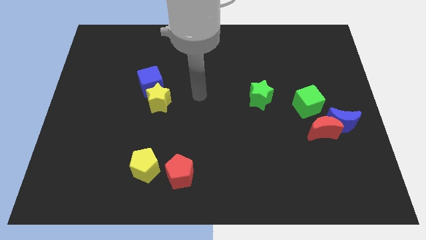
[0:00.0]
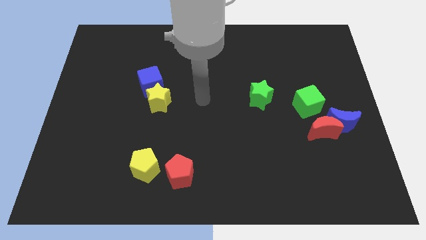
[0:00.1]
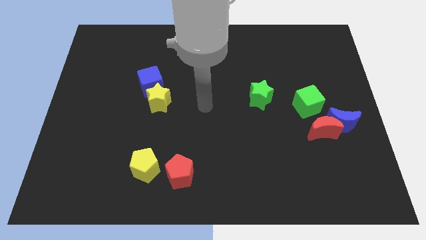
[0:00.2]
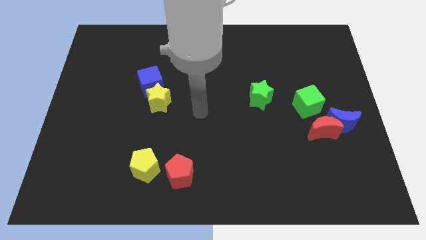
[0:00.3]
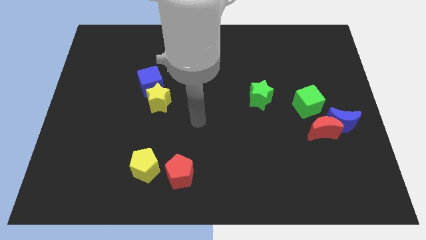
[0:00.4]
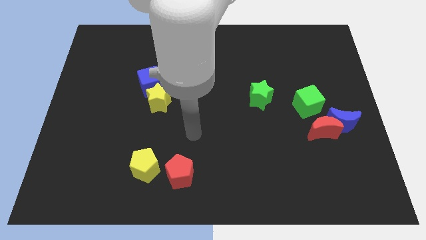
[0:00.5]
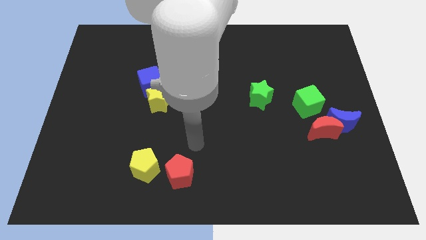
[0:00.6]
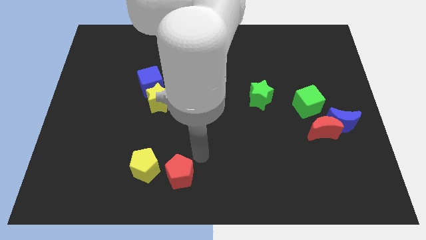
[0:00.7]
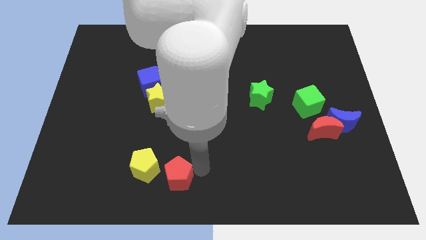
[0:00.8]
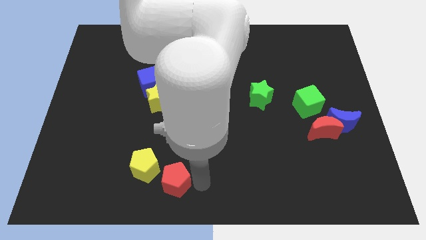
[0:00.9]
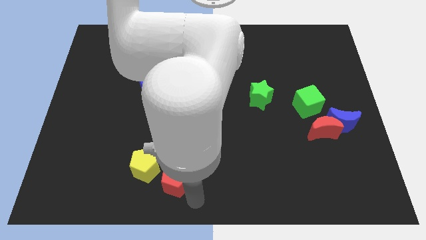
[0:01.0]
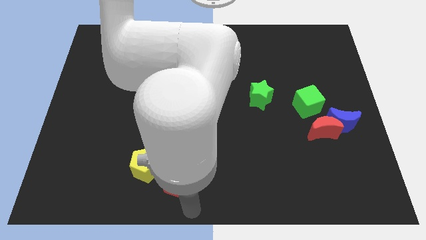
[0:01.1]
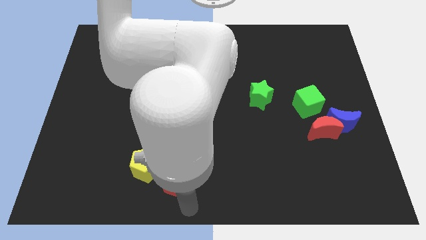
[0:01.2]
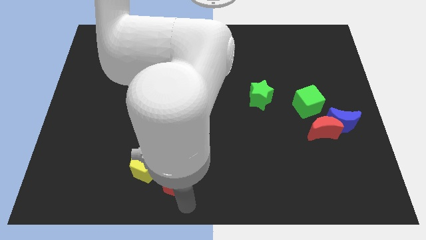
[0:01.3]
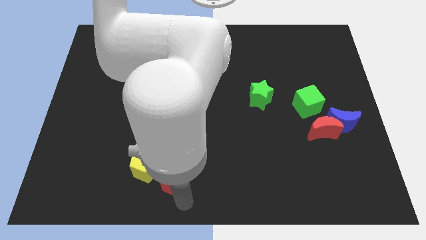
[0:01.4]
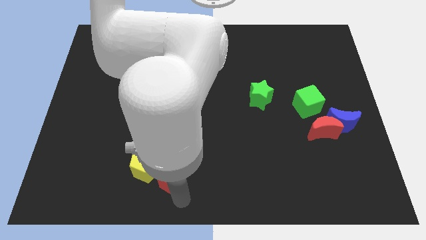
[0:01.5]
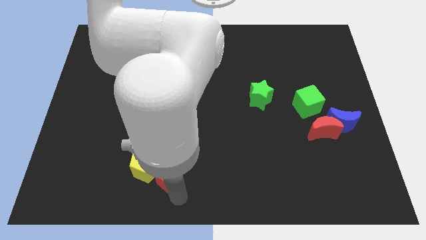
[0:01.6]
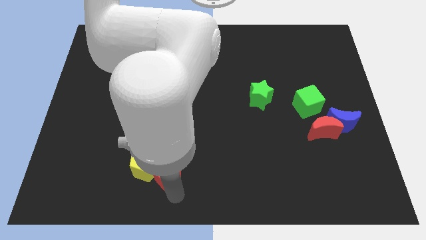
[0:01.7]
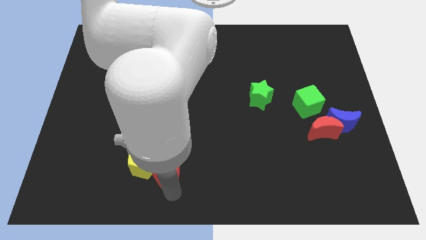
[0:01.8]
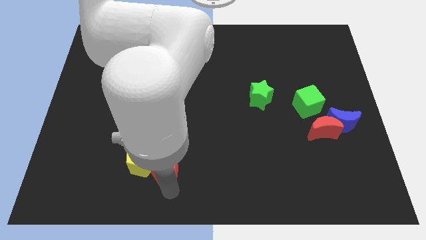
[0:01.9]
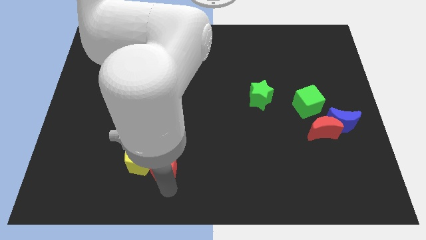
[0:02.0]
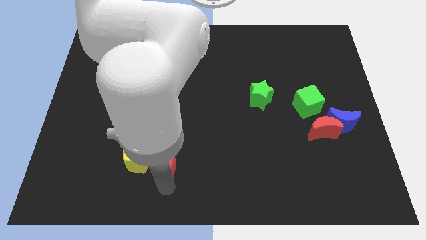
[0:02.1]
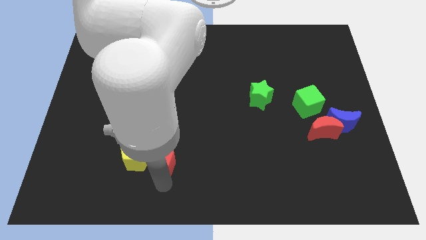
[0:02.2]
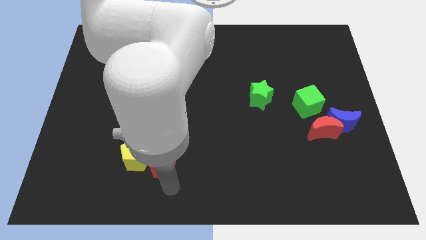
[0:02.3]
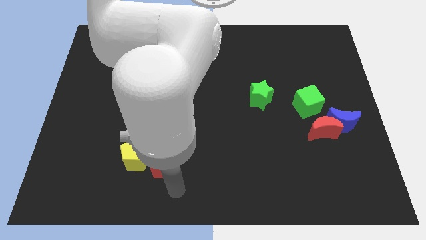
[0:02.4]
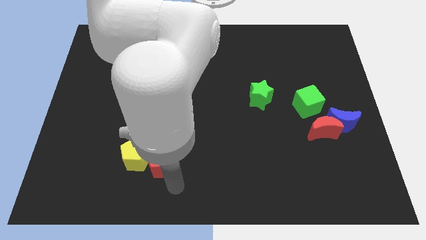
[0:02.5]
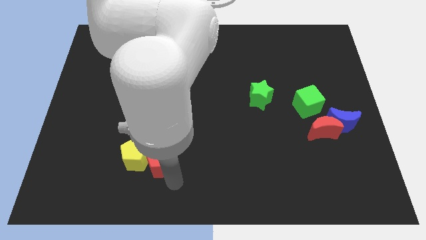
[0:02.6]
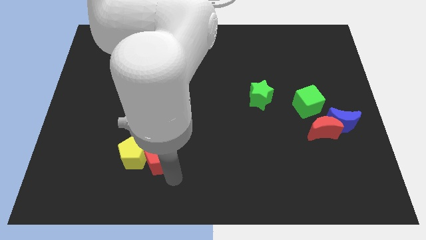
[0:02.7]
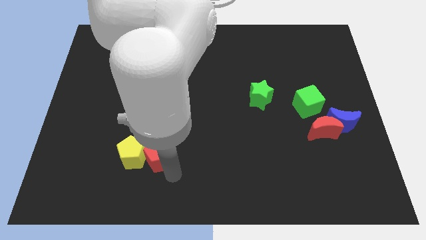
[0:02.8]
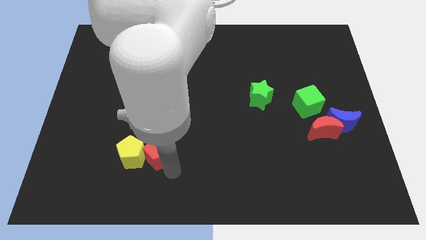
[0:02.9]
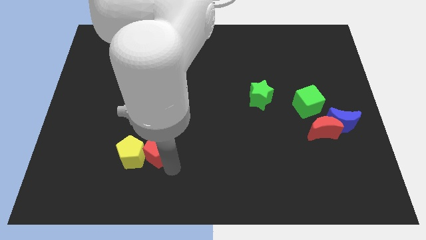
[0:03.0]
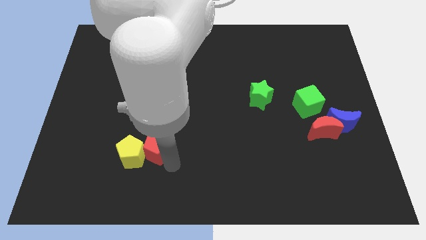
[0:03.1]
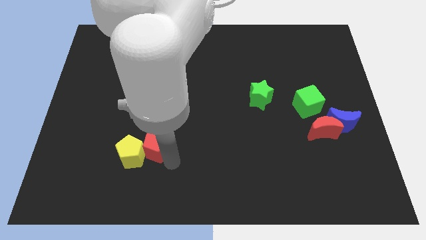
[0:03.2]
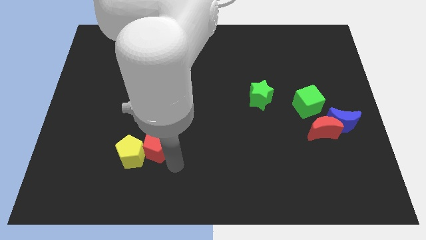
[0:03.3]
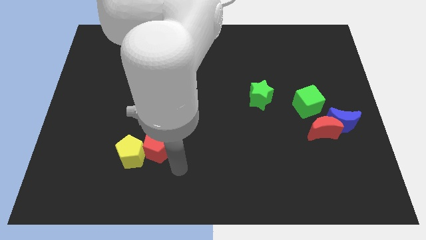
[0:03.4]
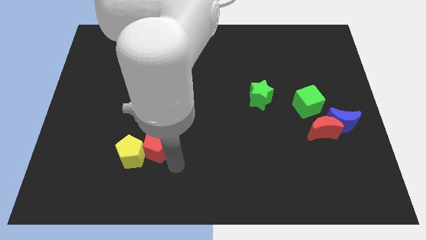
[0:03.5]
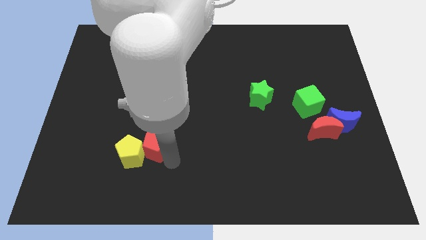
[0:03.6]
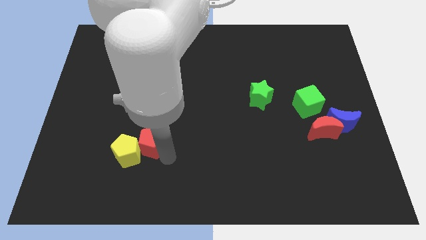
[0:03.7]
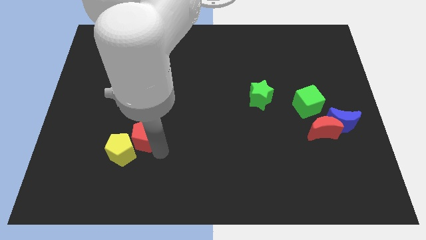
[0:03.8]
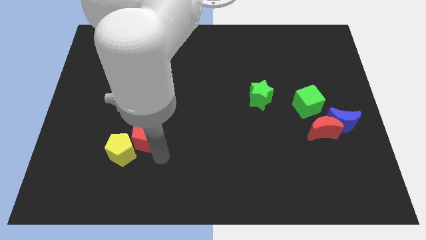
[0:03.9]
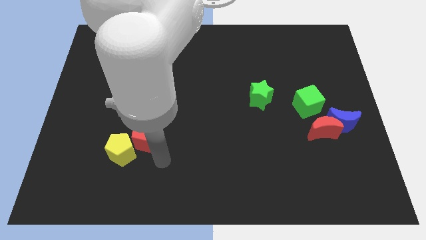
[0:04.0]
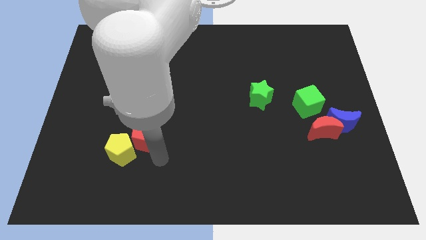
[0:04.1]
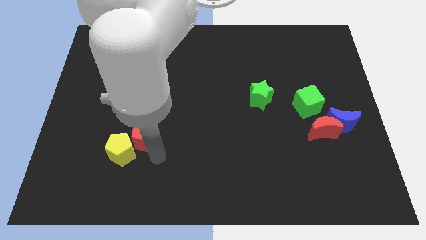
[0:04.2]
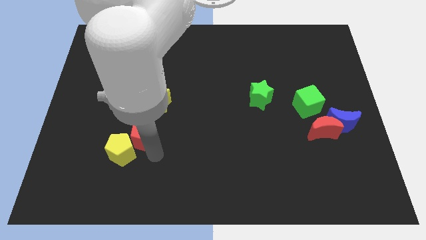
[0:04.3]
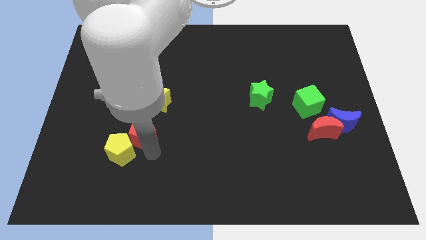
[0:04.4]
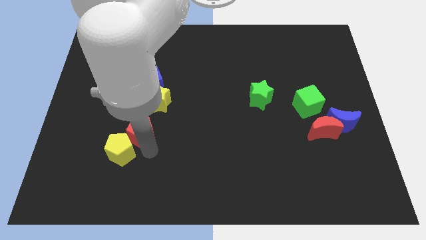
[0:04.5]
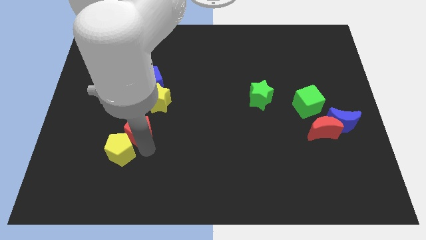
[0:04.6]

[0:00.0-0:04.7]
push the red pentagon to the bottom left of the yellow star

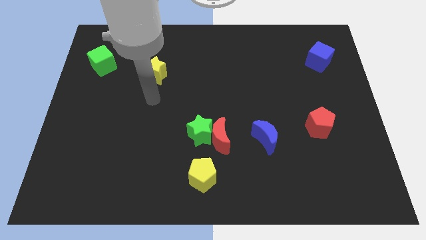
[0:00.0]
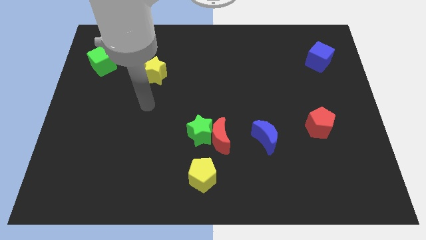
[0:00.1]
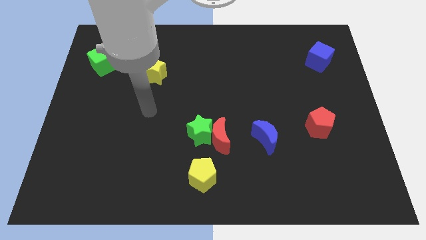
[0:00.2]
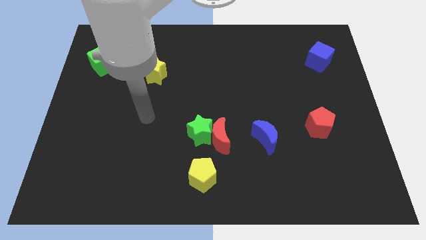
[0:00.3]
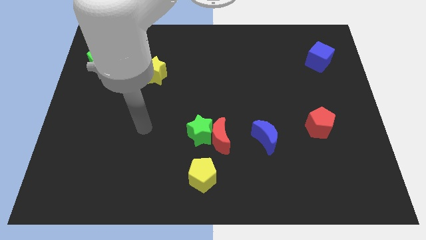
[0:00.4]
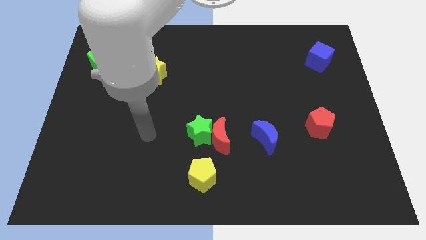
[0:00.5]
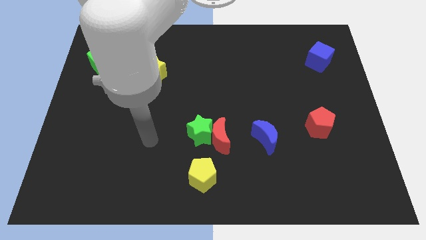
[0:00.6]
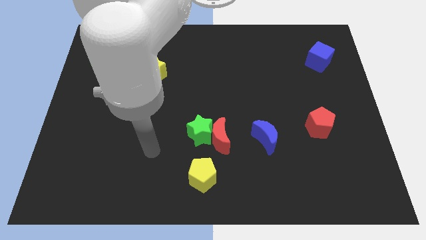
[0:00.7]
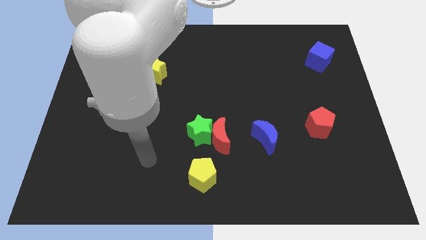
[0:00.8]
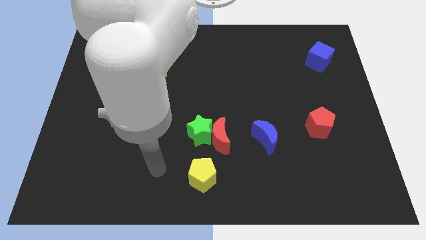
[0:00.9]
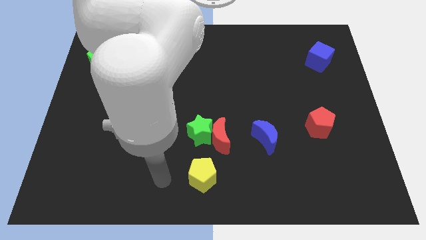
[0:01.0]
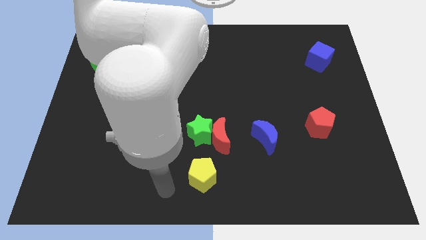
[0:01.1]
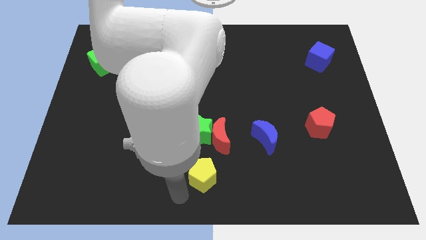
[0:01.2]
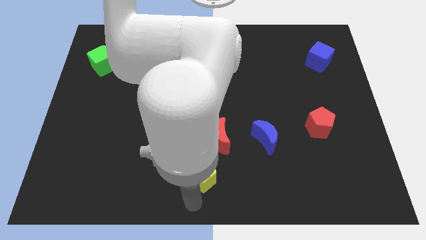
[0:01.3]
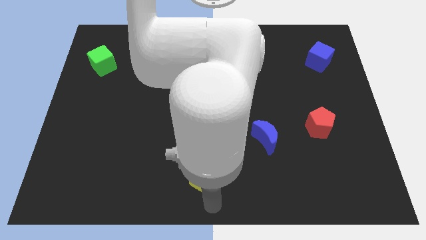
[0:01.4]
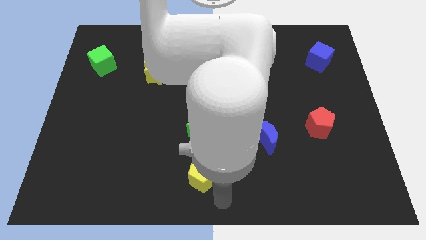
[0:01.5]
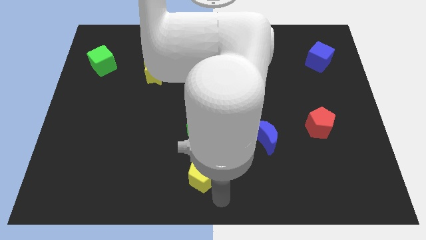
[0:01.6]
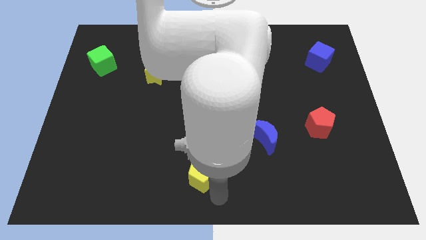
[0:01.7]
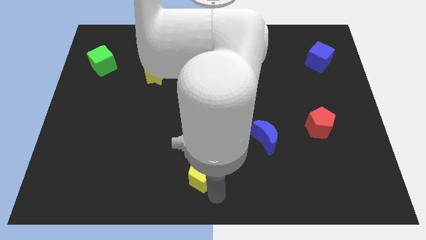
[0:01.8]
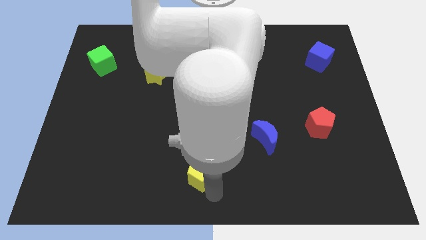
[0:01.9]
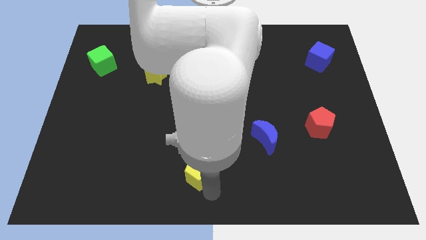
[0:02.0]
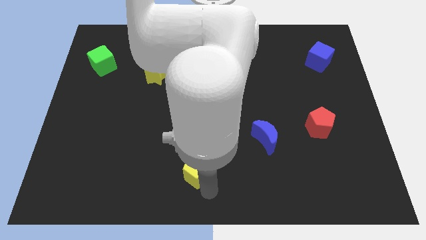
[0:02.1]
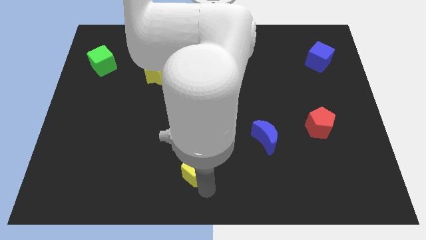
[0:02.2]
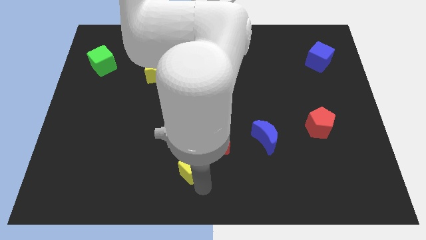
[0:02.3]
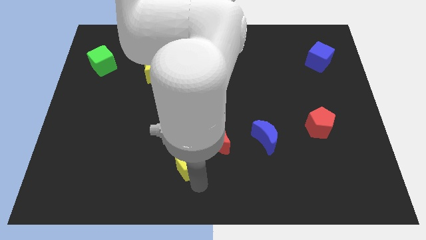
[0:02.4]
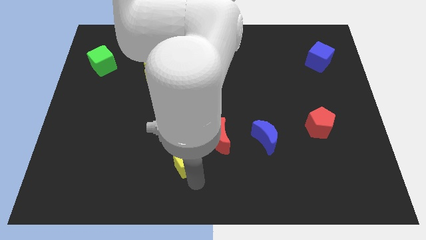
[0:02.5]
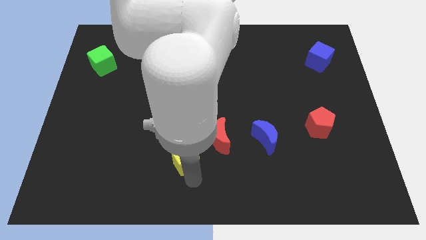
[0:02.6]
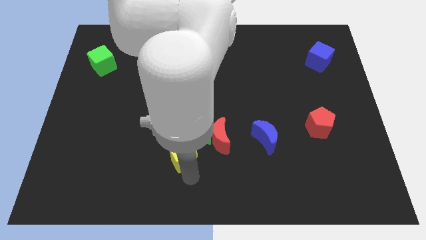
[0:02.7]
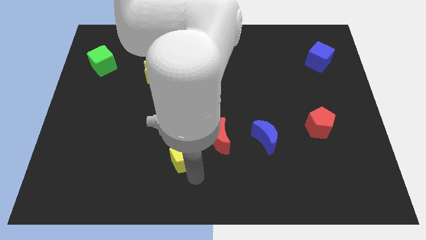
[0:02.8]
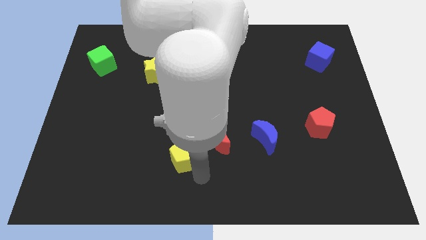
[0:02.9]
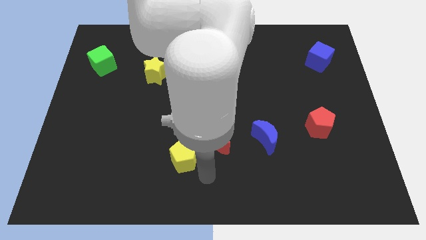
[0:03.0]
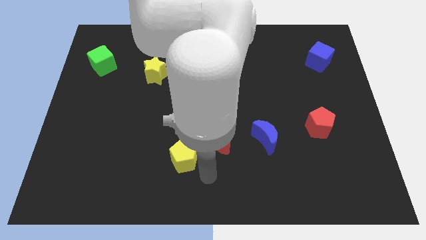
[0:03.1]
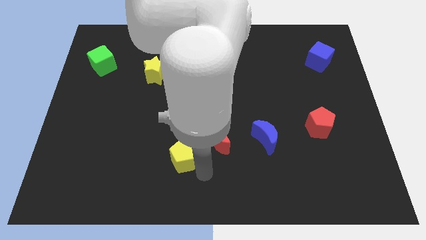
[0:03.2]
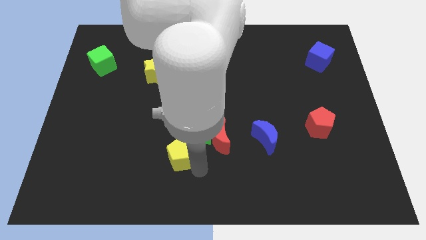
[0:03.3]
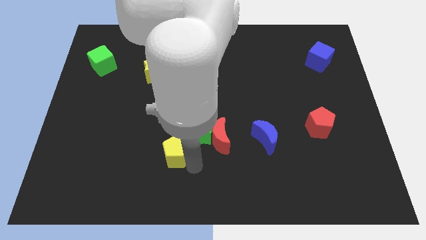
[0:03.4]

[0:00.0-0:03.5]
slide the yellow pentagon left of the green star
